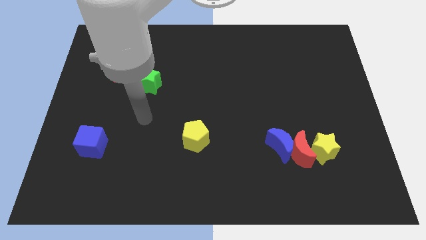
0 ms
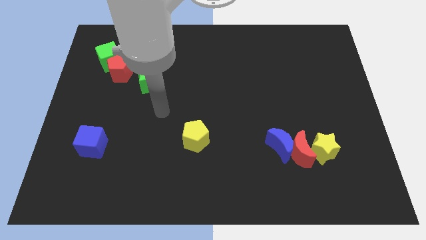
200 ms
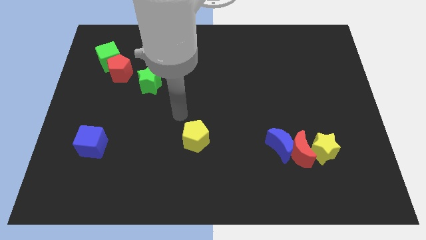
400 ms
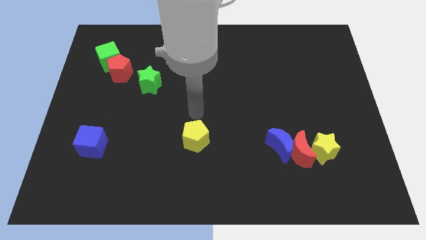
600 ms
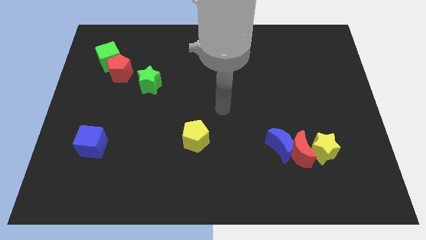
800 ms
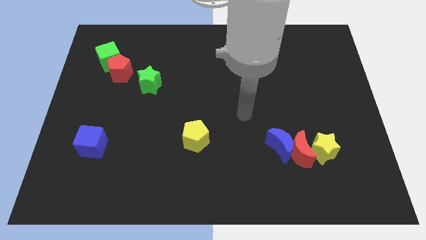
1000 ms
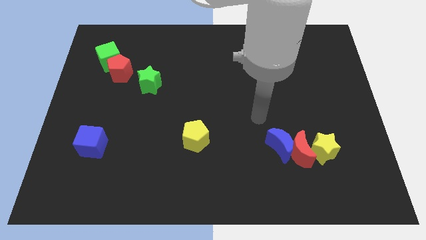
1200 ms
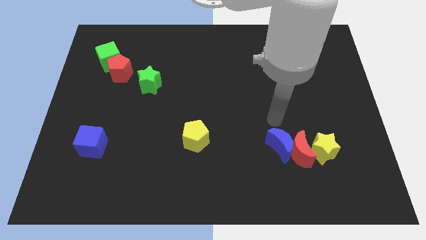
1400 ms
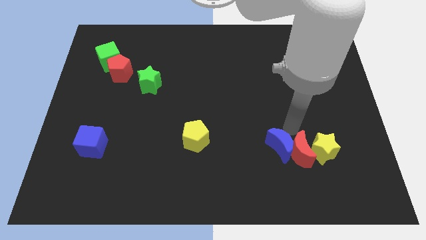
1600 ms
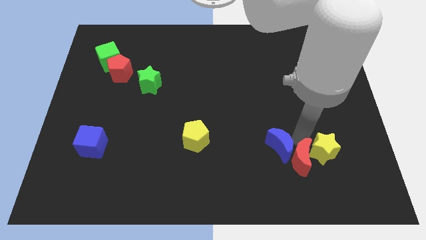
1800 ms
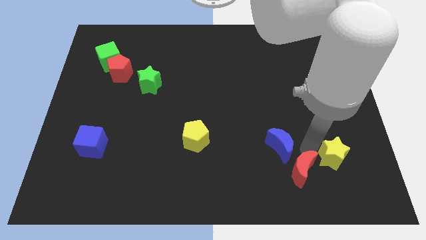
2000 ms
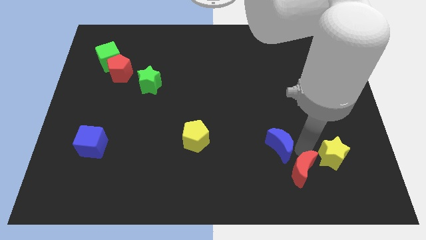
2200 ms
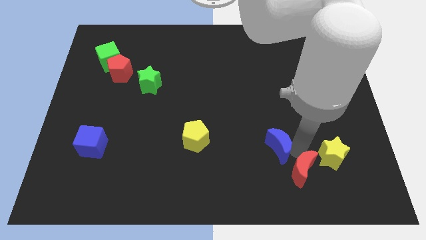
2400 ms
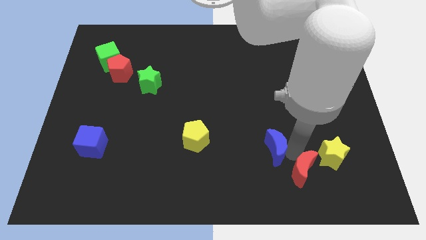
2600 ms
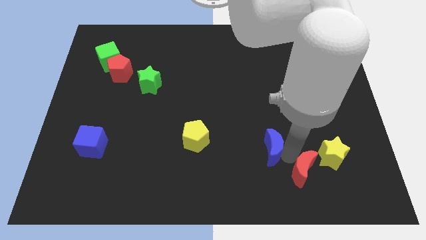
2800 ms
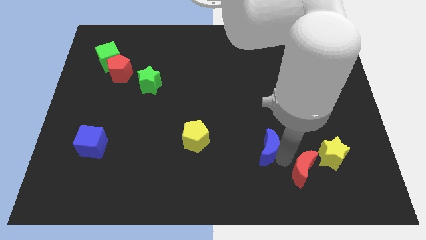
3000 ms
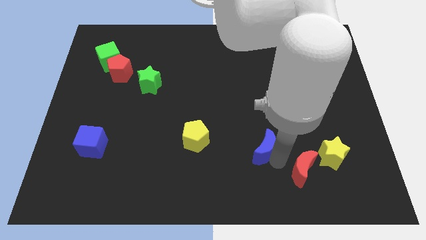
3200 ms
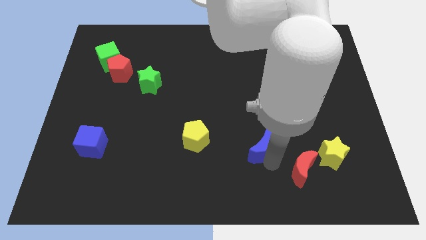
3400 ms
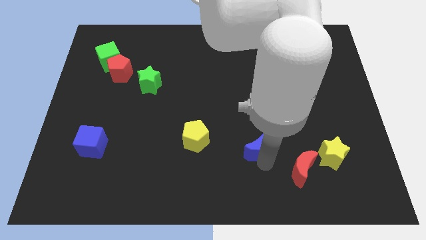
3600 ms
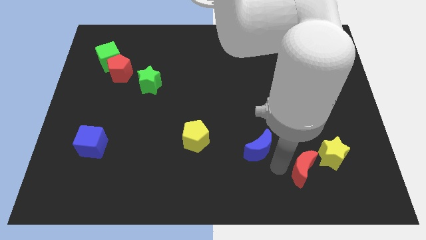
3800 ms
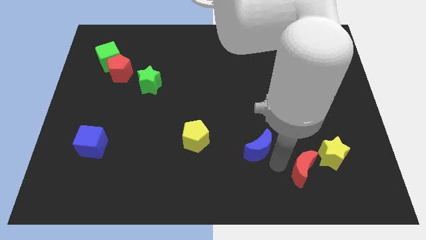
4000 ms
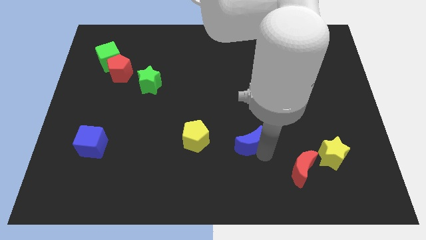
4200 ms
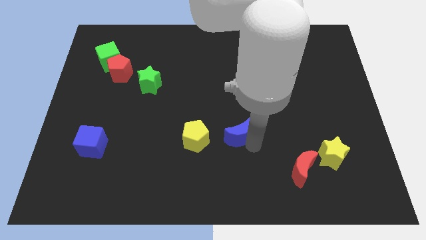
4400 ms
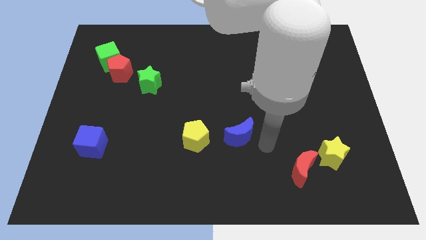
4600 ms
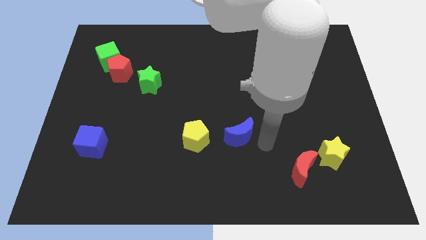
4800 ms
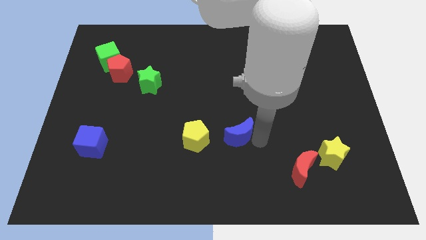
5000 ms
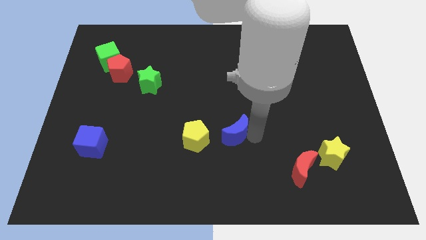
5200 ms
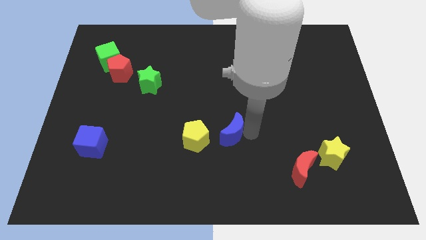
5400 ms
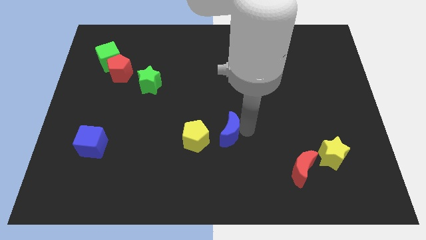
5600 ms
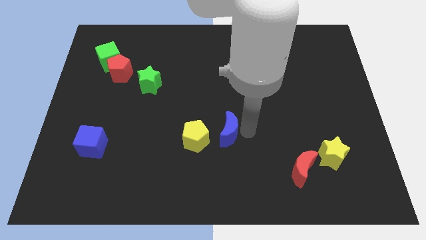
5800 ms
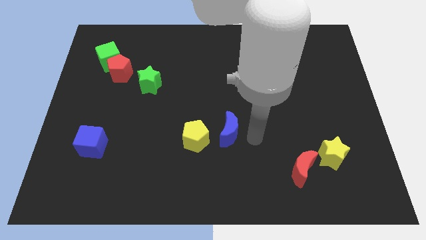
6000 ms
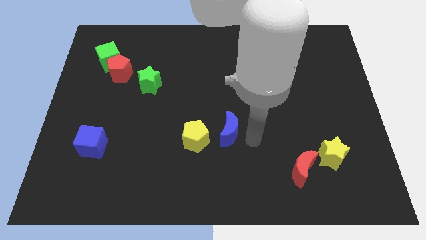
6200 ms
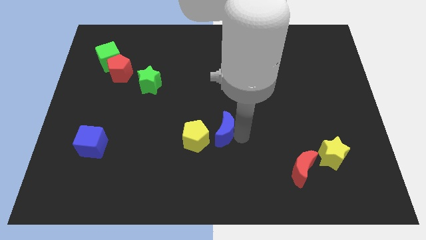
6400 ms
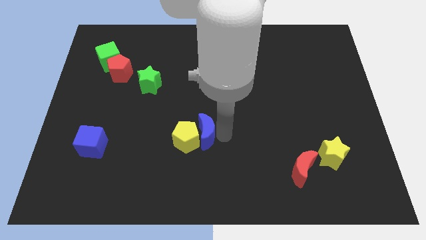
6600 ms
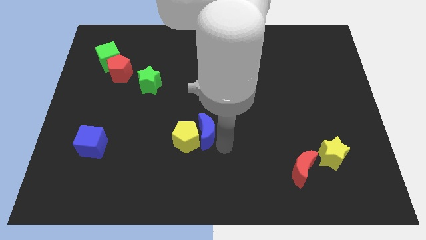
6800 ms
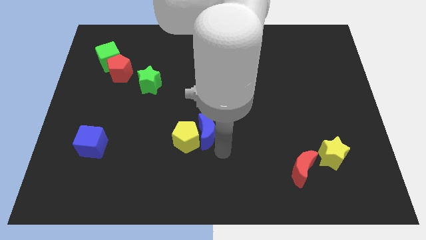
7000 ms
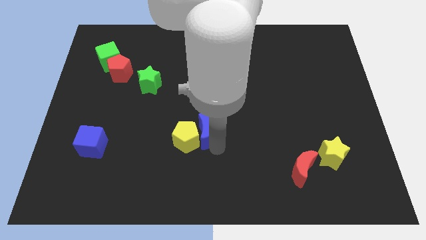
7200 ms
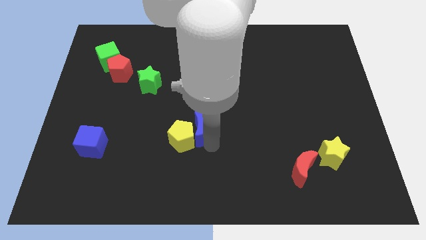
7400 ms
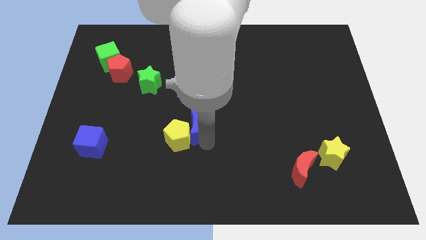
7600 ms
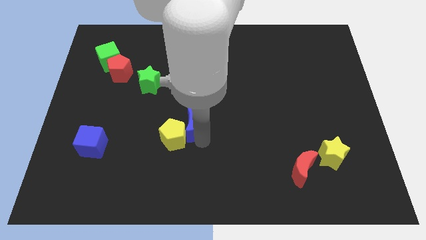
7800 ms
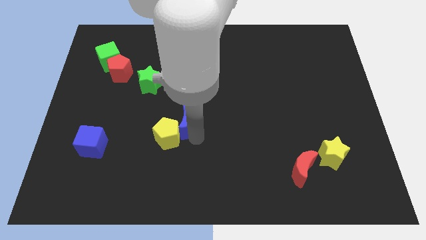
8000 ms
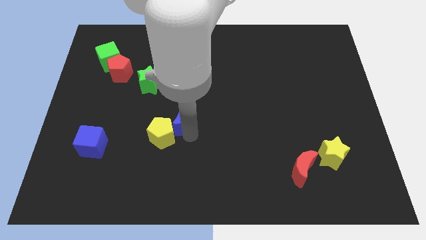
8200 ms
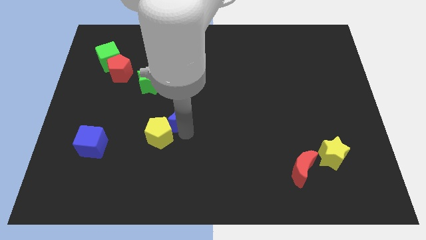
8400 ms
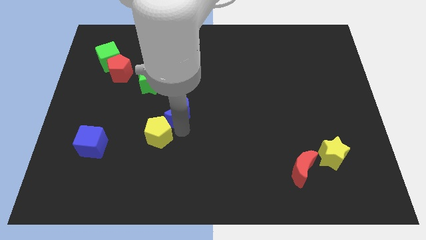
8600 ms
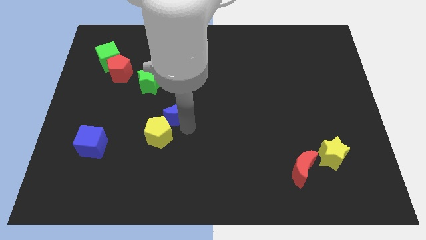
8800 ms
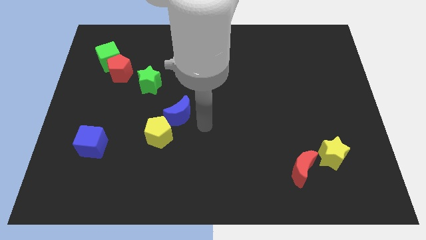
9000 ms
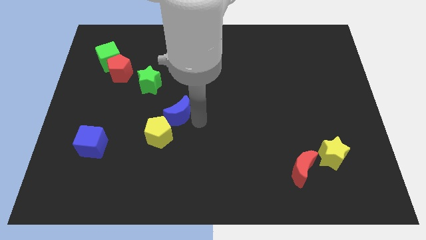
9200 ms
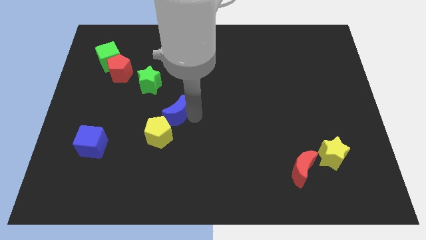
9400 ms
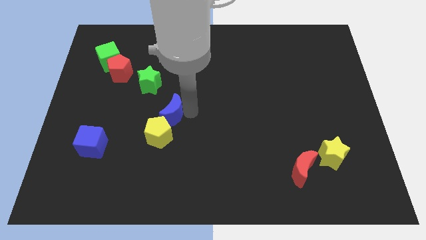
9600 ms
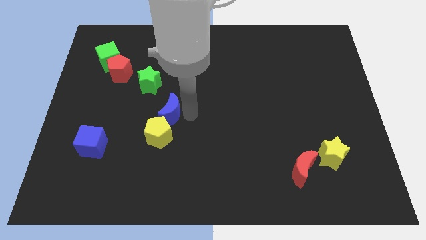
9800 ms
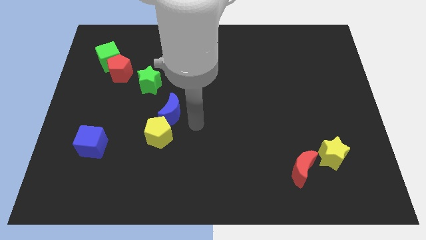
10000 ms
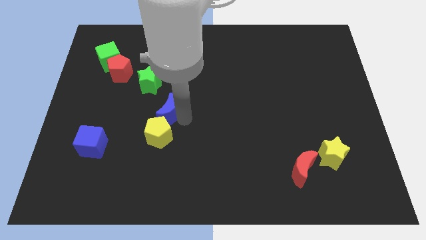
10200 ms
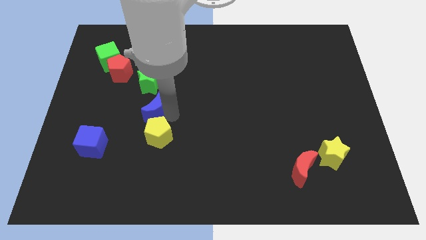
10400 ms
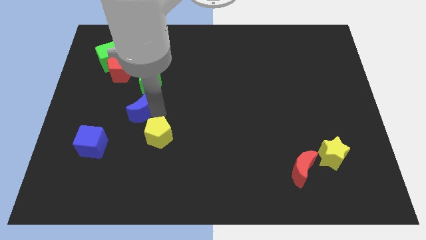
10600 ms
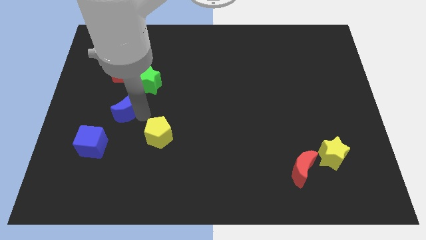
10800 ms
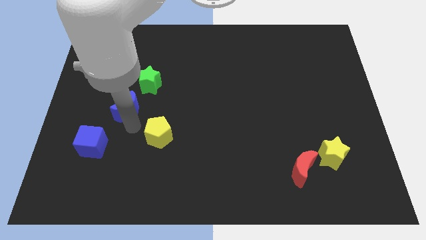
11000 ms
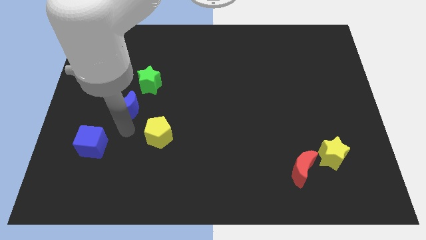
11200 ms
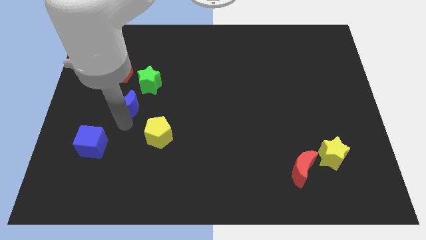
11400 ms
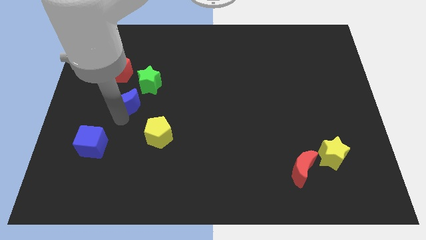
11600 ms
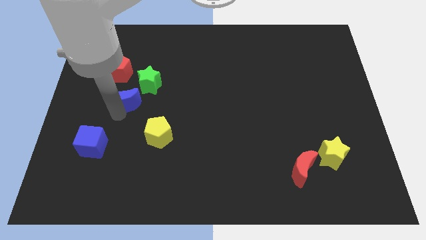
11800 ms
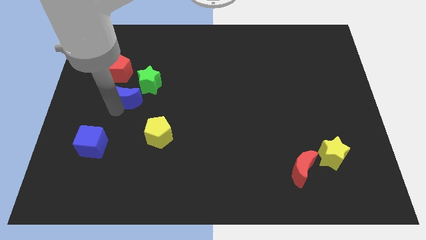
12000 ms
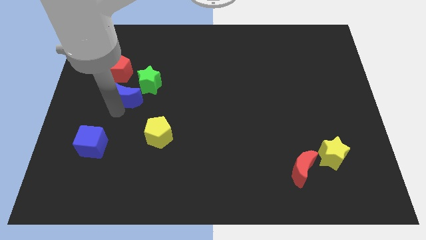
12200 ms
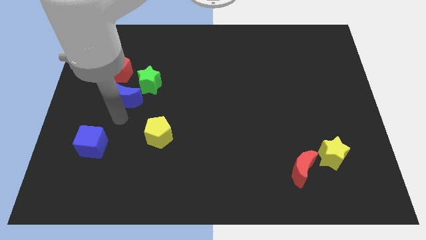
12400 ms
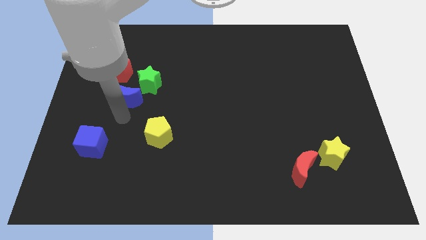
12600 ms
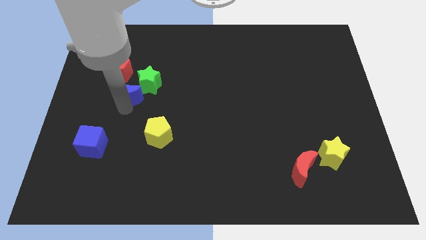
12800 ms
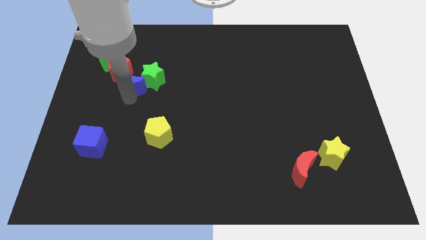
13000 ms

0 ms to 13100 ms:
slide the blue moon to the red pentagon

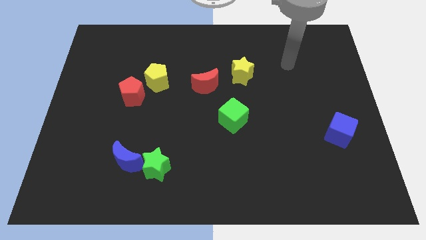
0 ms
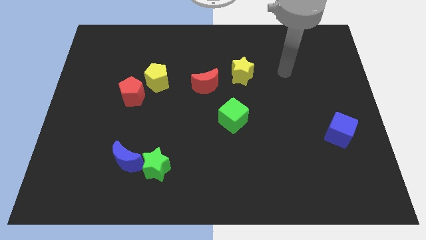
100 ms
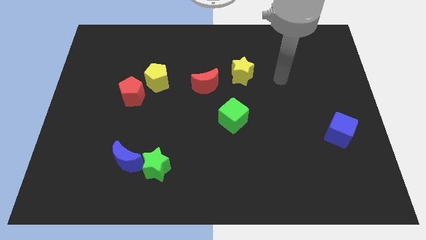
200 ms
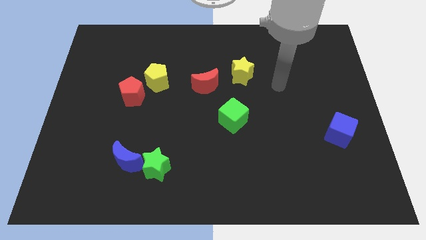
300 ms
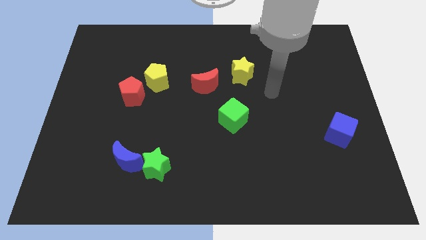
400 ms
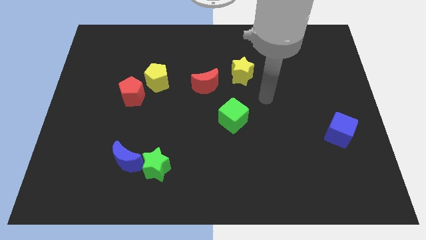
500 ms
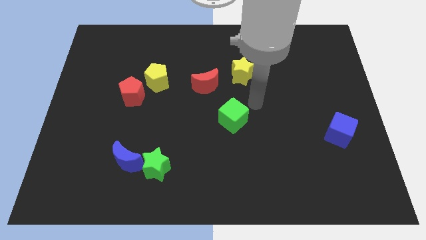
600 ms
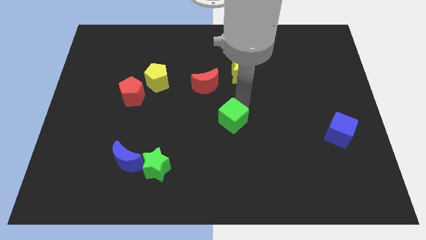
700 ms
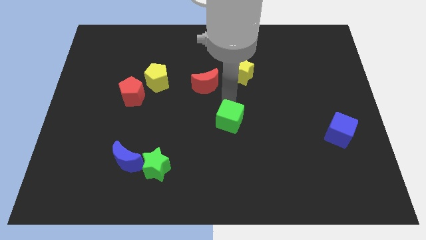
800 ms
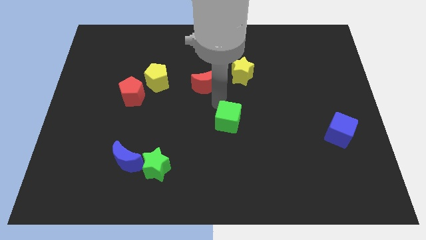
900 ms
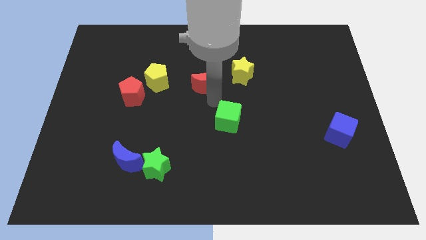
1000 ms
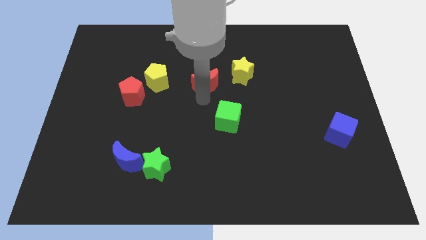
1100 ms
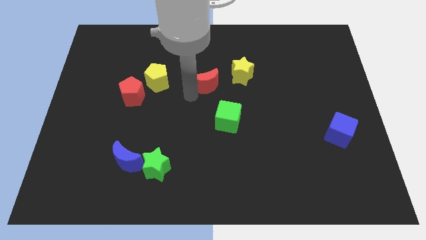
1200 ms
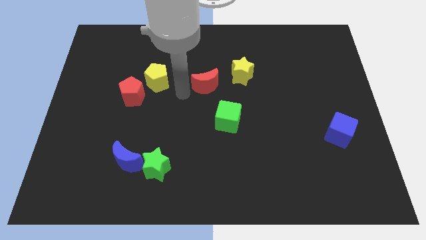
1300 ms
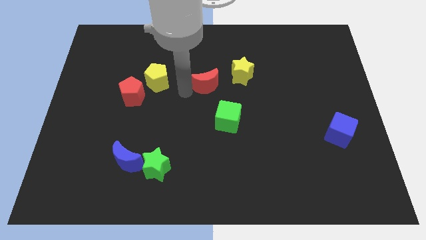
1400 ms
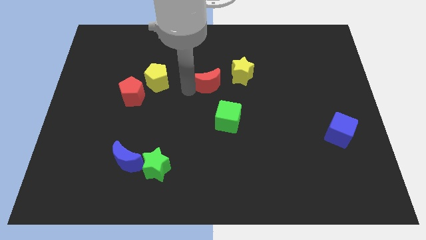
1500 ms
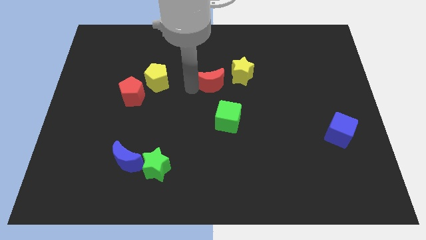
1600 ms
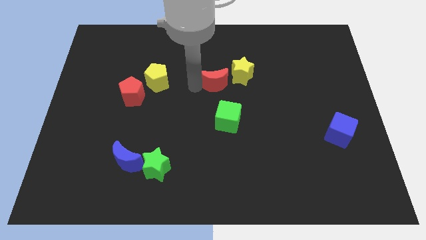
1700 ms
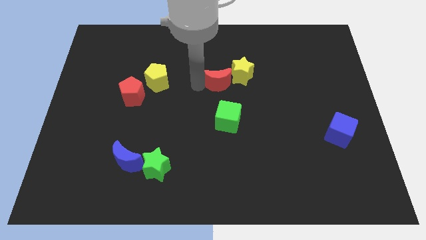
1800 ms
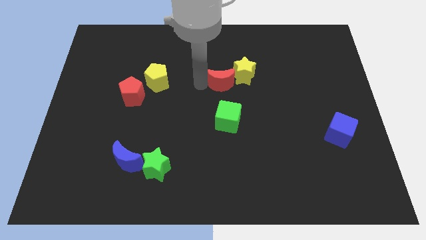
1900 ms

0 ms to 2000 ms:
slide the red moon close to the yellow star
